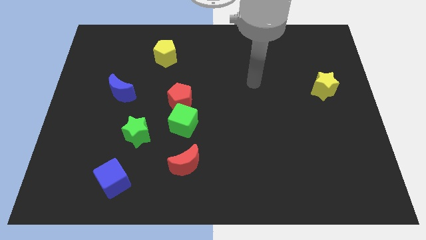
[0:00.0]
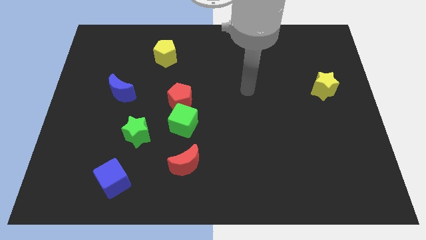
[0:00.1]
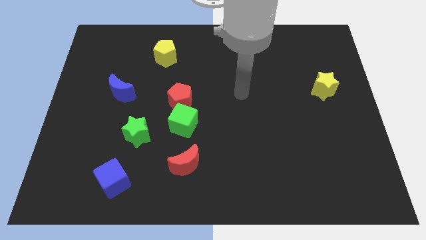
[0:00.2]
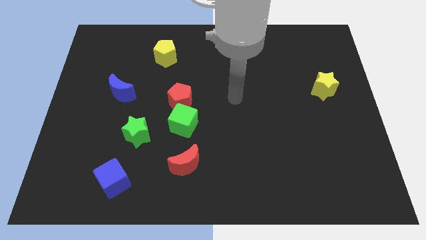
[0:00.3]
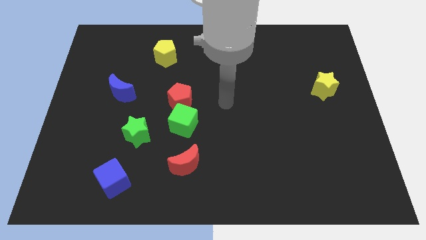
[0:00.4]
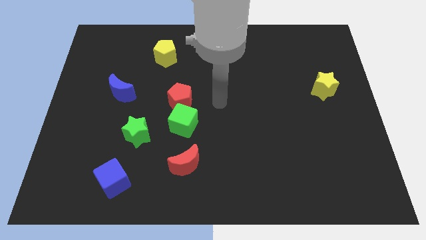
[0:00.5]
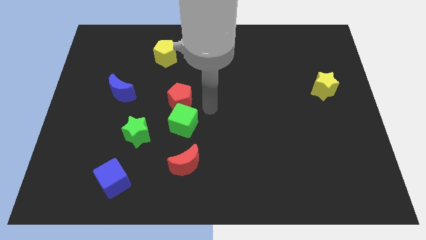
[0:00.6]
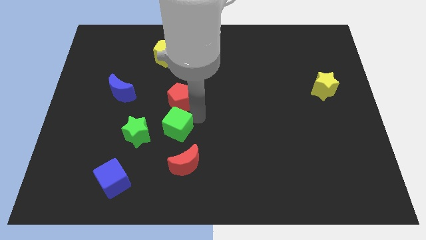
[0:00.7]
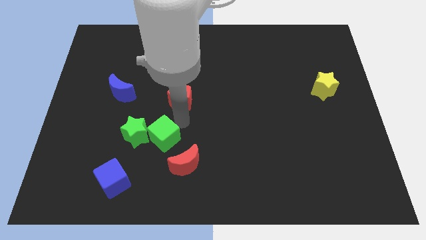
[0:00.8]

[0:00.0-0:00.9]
pull the red pentagon apart from the green cube

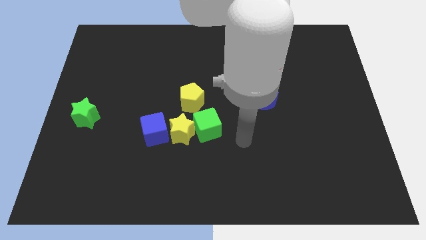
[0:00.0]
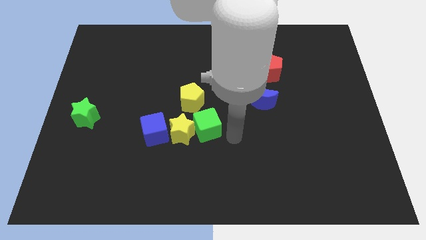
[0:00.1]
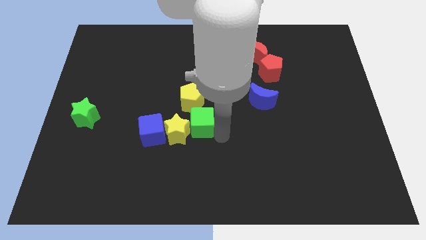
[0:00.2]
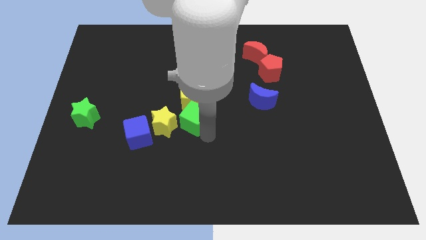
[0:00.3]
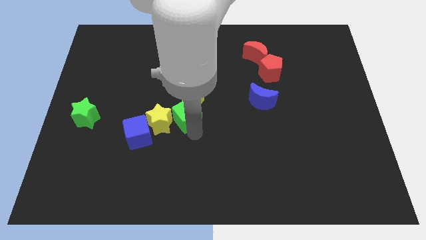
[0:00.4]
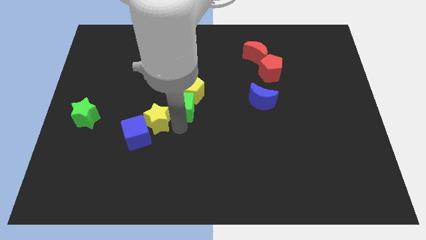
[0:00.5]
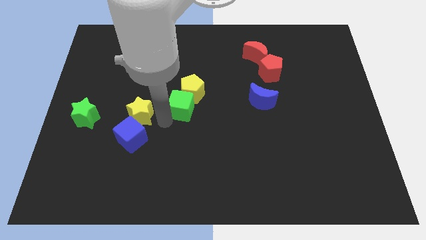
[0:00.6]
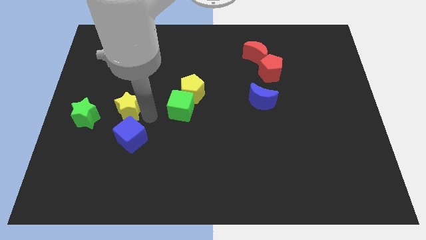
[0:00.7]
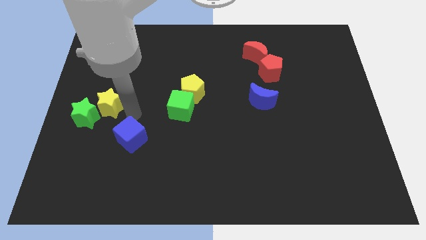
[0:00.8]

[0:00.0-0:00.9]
separate the blue cube from the yellow star

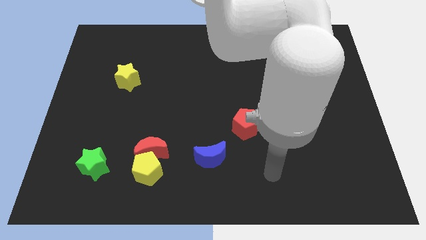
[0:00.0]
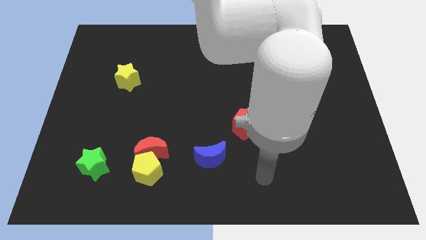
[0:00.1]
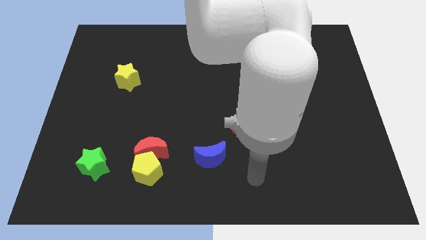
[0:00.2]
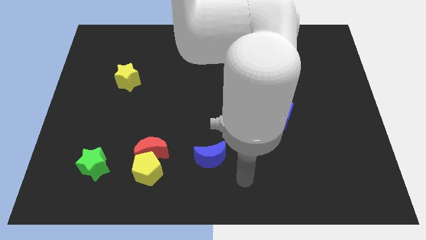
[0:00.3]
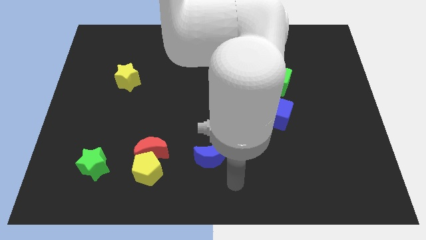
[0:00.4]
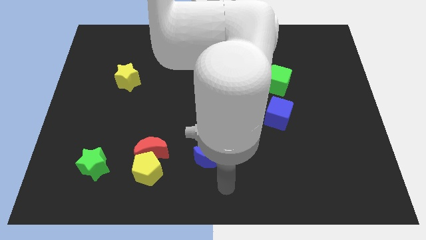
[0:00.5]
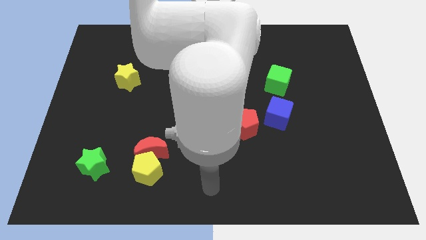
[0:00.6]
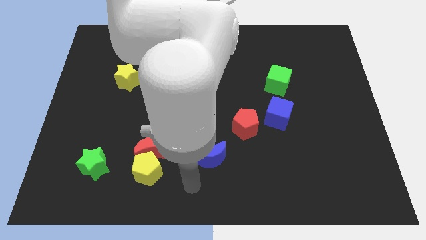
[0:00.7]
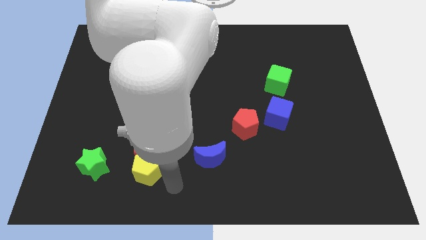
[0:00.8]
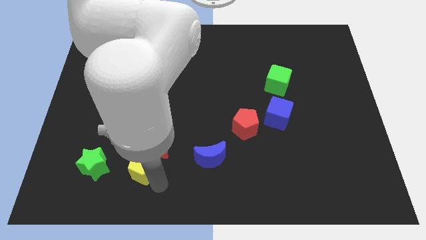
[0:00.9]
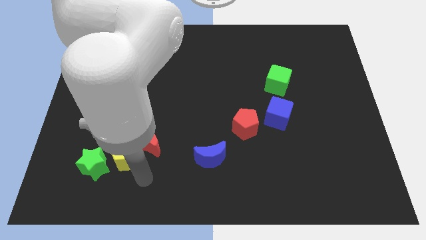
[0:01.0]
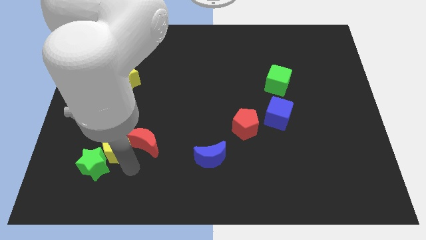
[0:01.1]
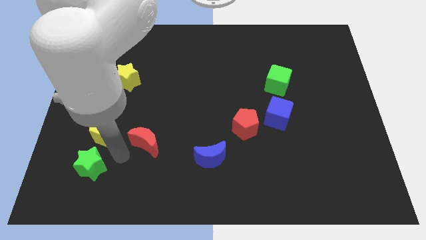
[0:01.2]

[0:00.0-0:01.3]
separate the red moon from the yellow pentagon

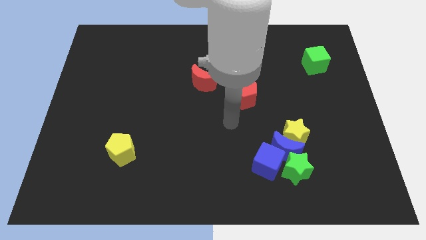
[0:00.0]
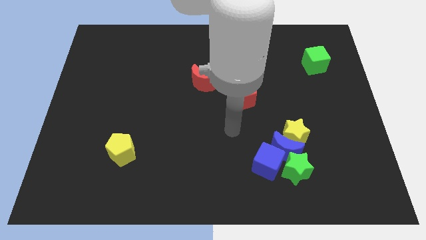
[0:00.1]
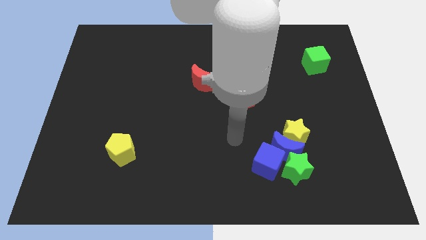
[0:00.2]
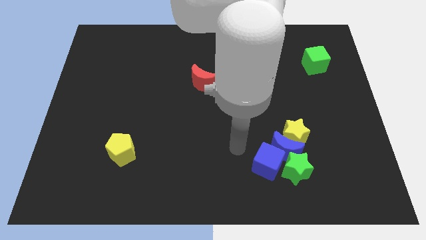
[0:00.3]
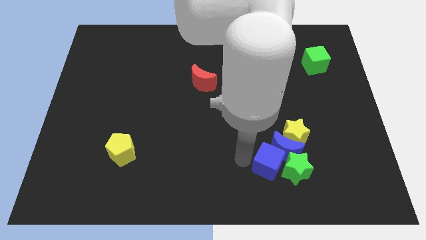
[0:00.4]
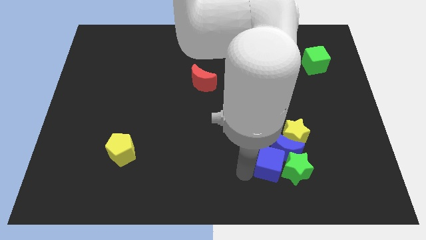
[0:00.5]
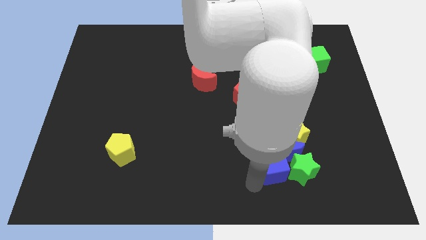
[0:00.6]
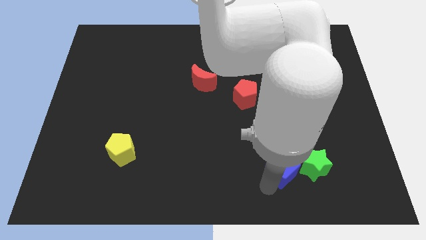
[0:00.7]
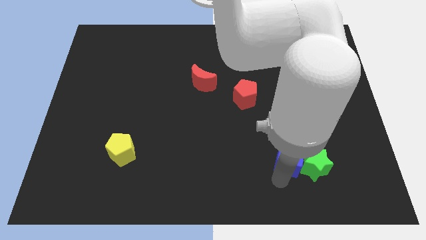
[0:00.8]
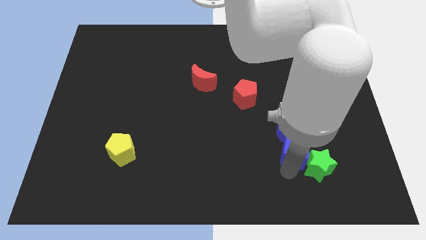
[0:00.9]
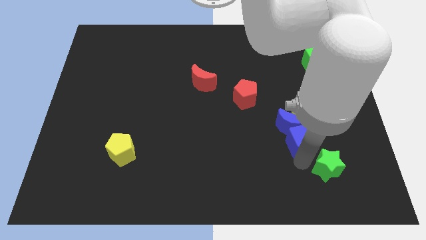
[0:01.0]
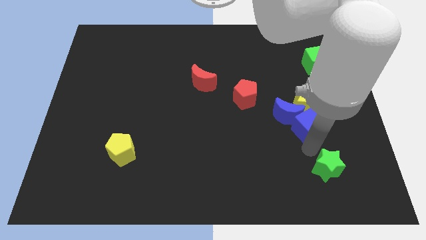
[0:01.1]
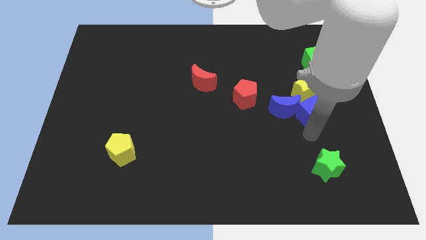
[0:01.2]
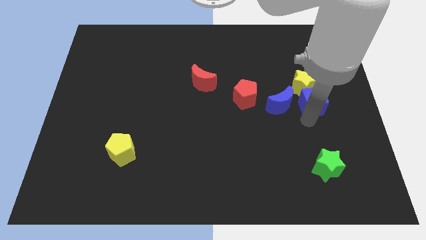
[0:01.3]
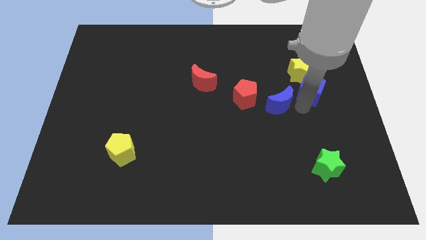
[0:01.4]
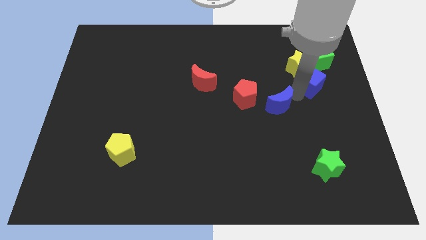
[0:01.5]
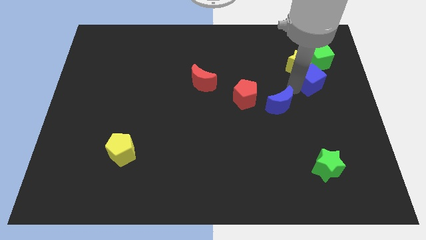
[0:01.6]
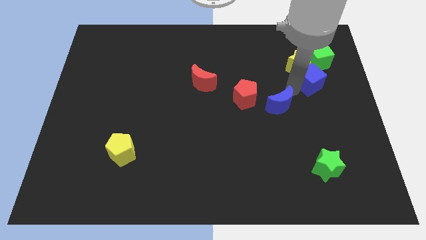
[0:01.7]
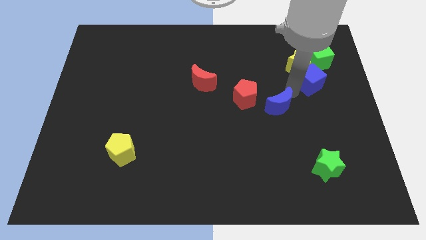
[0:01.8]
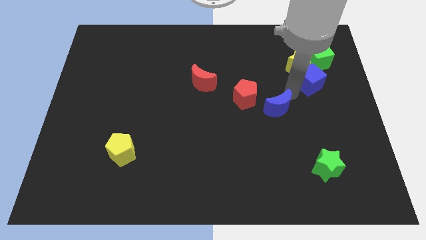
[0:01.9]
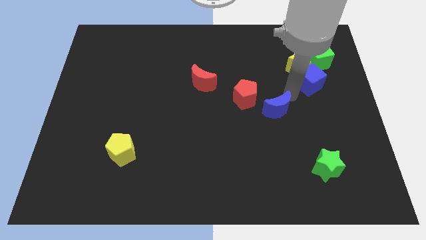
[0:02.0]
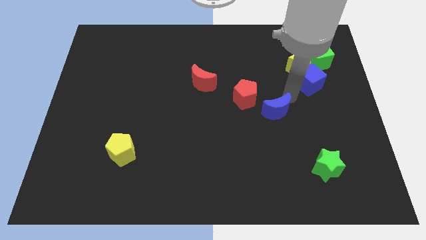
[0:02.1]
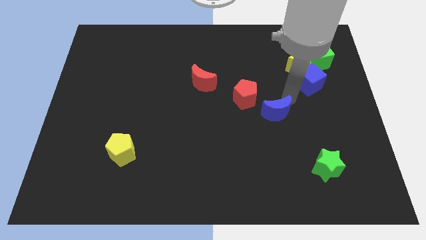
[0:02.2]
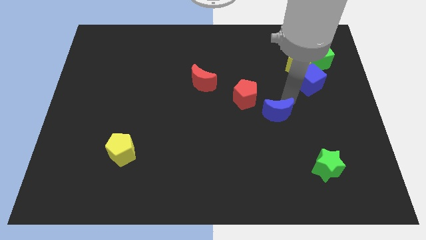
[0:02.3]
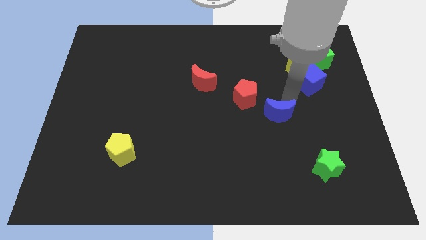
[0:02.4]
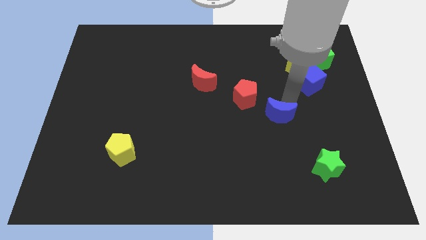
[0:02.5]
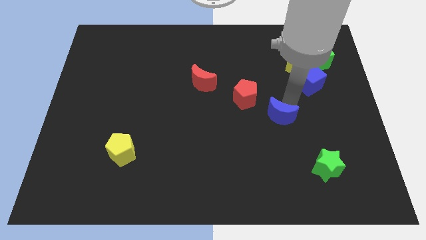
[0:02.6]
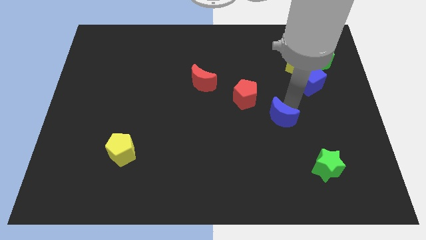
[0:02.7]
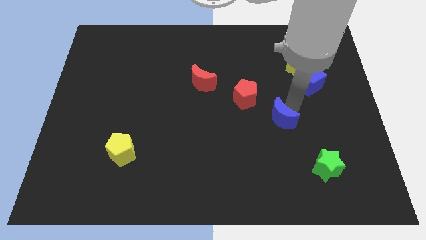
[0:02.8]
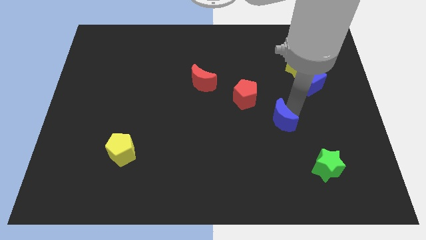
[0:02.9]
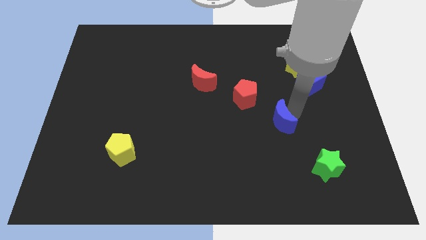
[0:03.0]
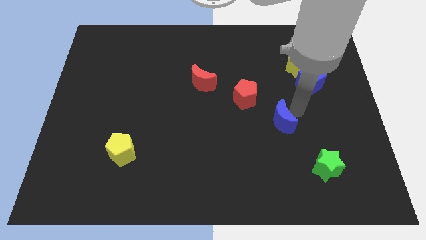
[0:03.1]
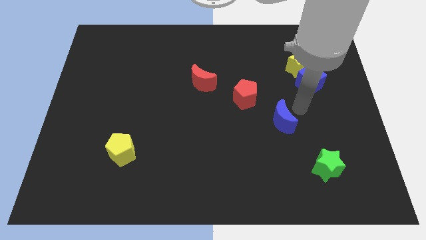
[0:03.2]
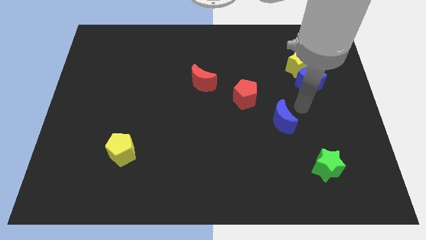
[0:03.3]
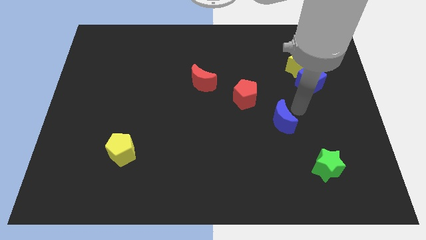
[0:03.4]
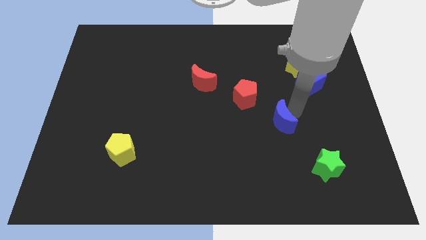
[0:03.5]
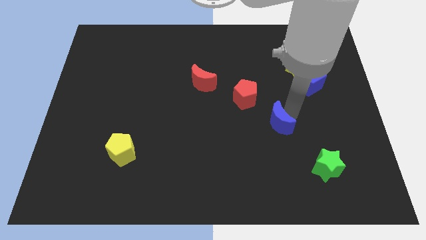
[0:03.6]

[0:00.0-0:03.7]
separate the blue moon from the group of blocks

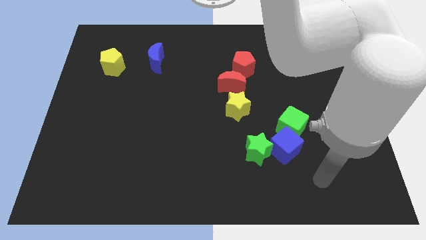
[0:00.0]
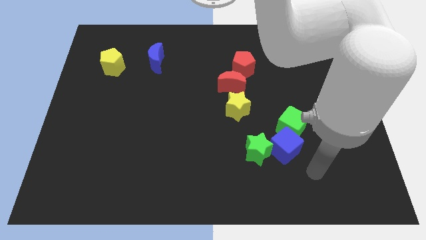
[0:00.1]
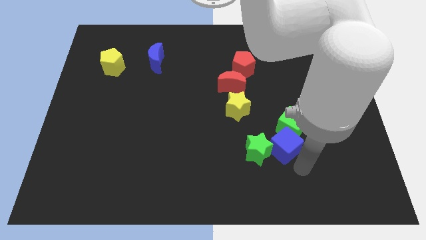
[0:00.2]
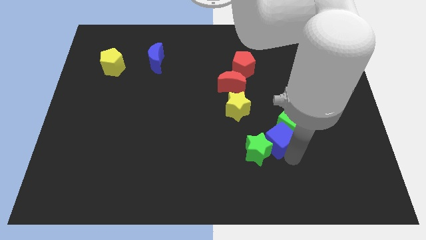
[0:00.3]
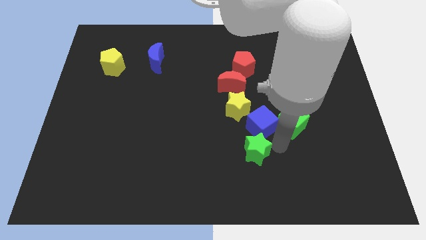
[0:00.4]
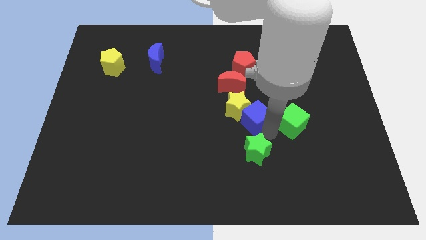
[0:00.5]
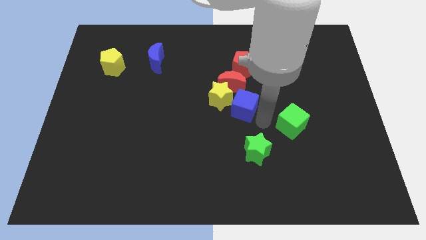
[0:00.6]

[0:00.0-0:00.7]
move the green cube away from the blue cube

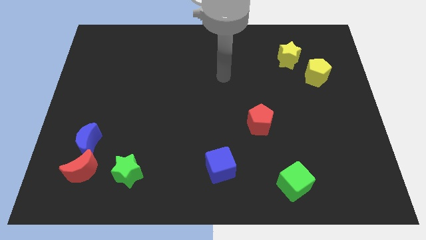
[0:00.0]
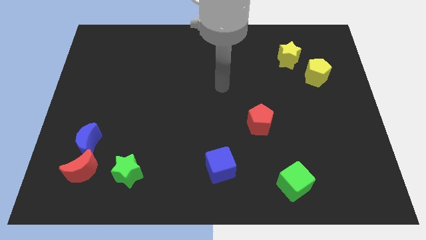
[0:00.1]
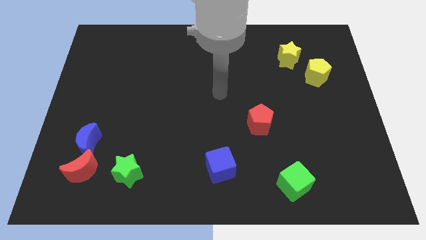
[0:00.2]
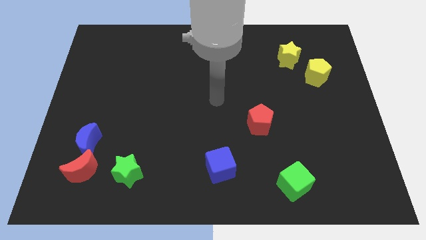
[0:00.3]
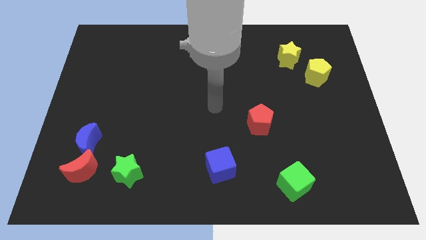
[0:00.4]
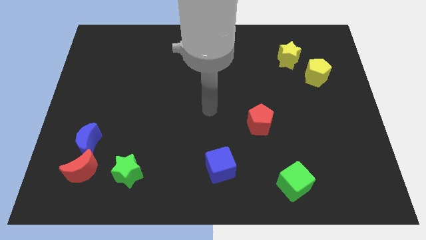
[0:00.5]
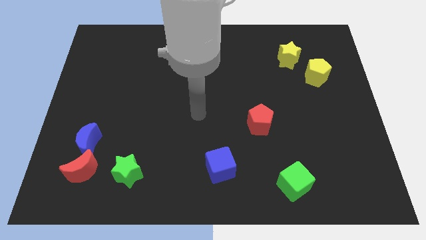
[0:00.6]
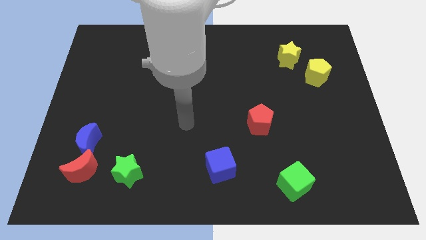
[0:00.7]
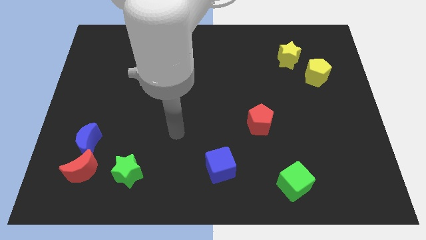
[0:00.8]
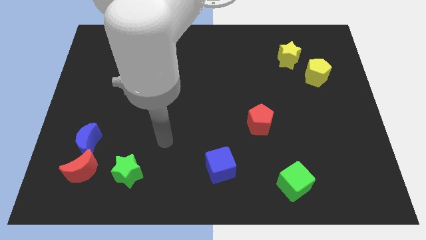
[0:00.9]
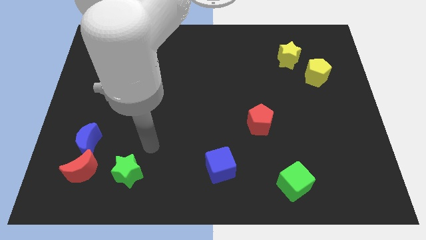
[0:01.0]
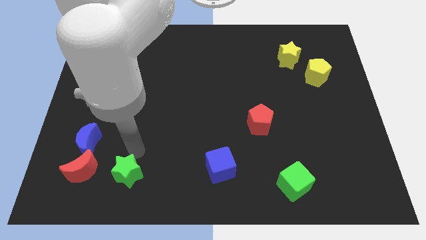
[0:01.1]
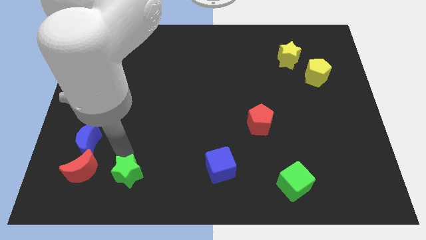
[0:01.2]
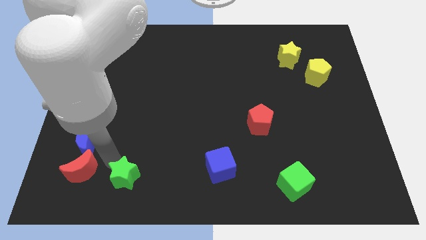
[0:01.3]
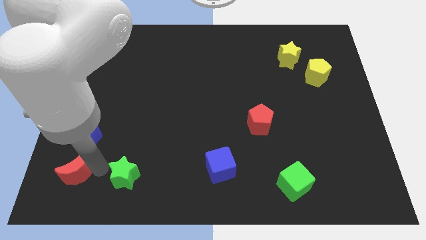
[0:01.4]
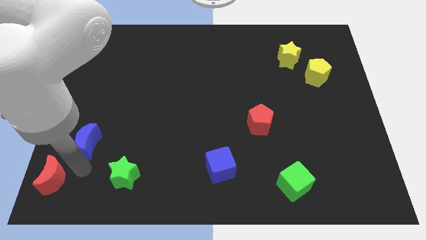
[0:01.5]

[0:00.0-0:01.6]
pull the blue moon apart from the red moon

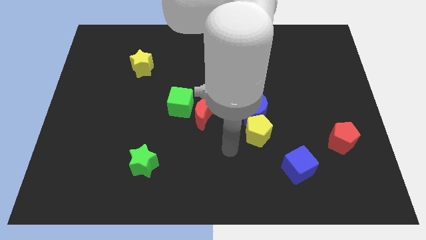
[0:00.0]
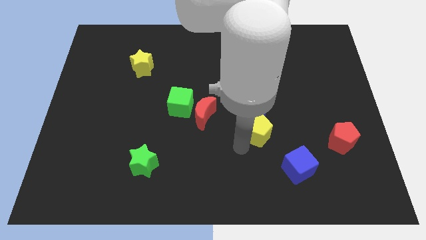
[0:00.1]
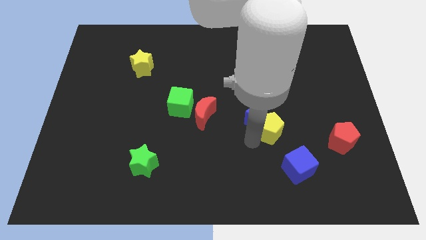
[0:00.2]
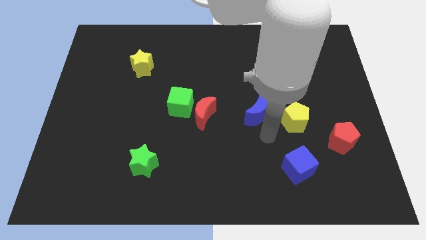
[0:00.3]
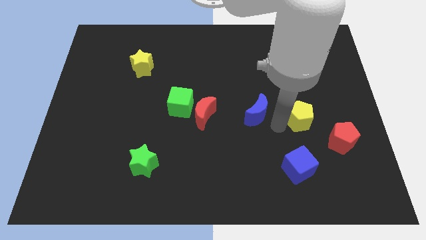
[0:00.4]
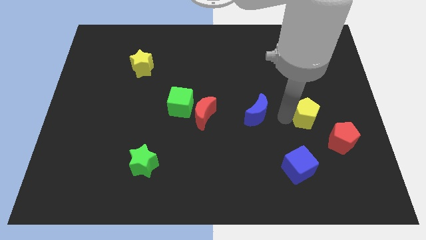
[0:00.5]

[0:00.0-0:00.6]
move the blue moon away from the yellow pentagon
